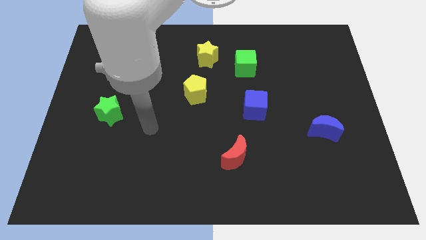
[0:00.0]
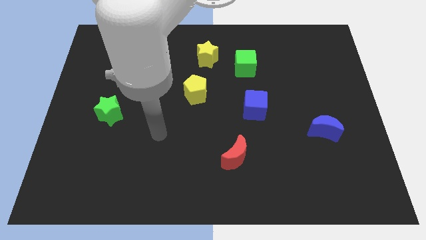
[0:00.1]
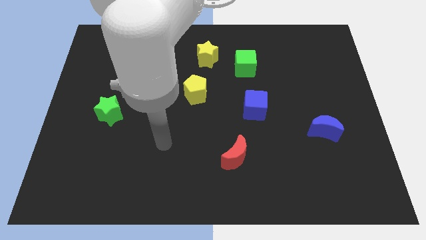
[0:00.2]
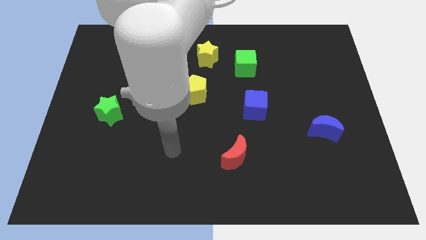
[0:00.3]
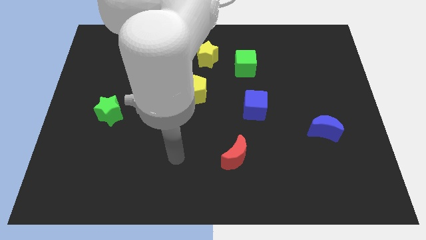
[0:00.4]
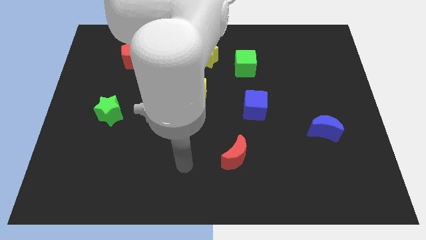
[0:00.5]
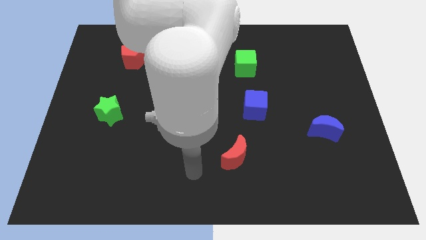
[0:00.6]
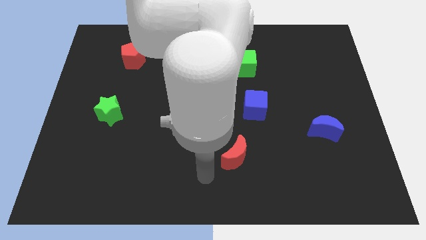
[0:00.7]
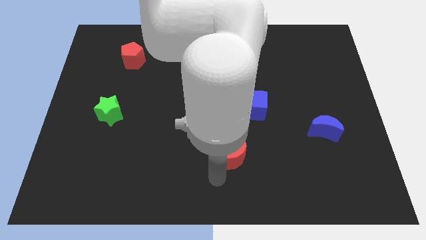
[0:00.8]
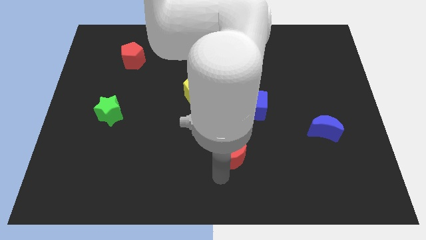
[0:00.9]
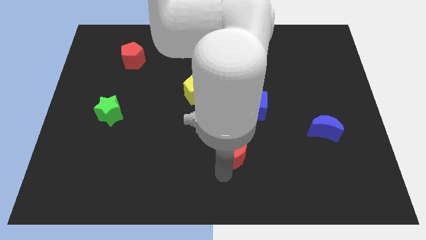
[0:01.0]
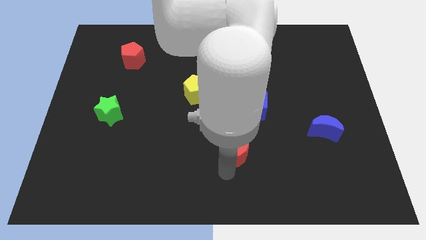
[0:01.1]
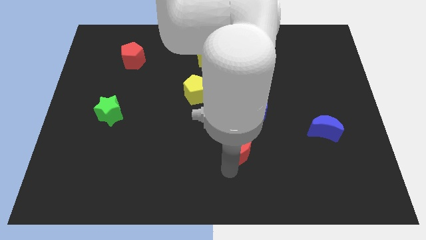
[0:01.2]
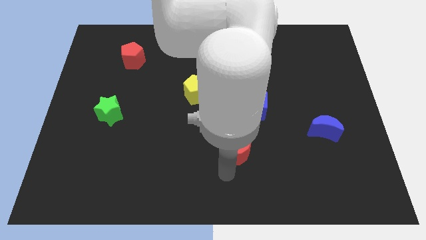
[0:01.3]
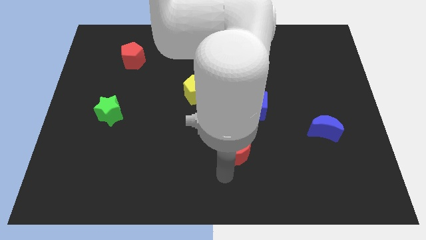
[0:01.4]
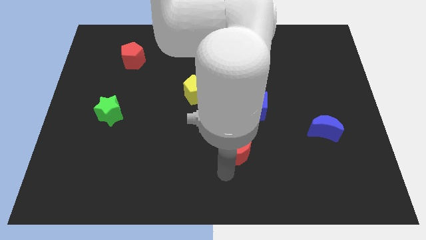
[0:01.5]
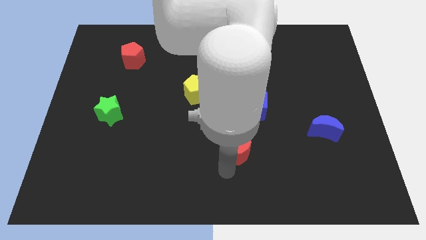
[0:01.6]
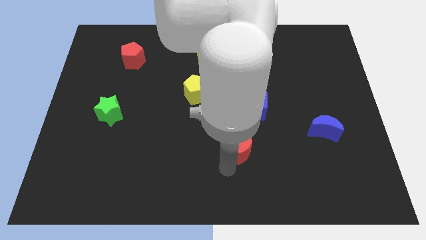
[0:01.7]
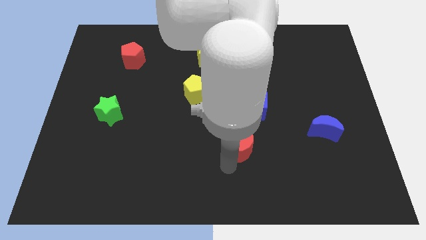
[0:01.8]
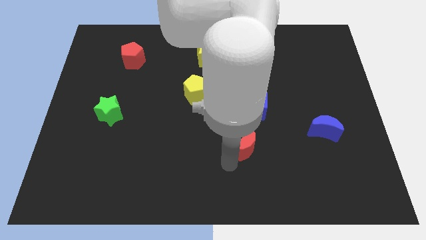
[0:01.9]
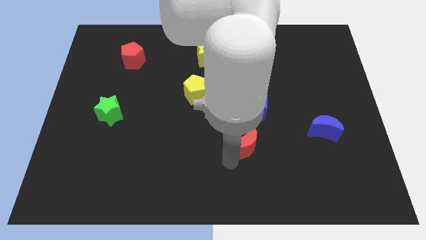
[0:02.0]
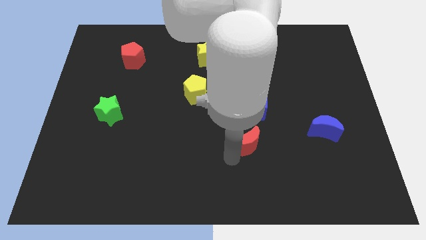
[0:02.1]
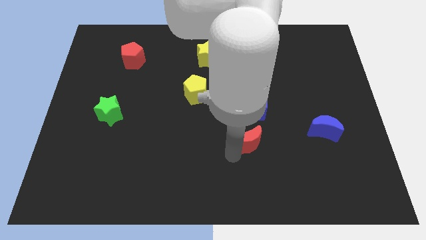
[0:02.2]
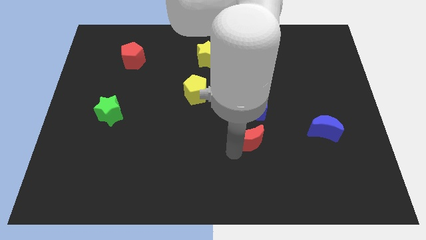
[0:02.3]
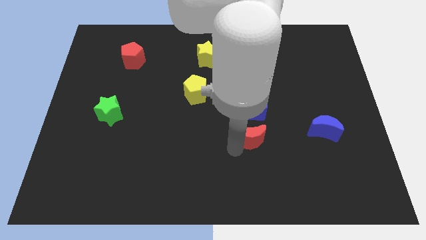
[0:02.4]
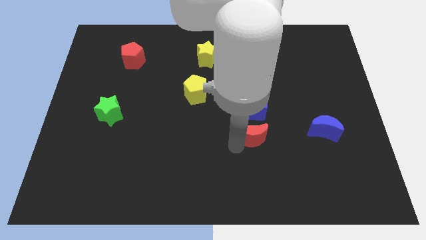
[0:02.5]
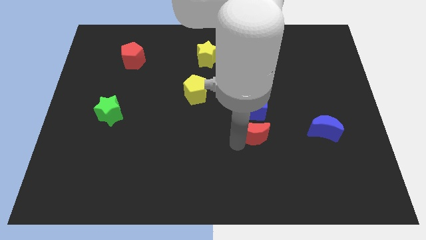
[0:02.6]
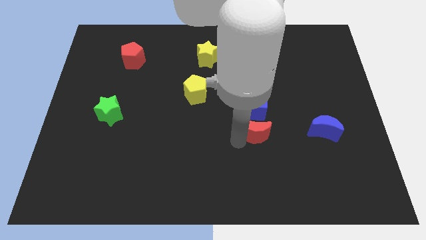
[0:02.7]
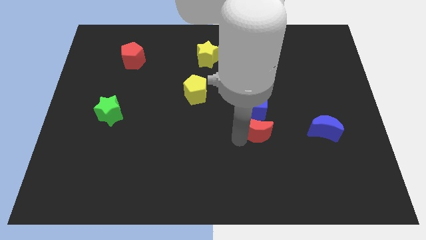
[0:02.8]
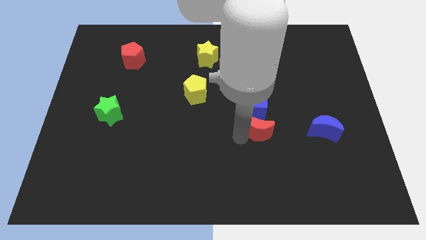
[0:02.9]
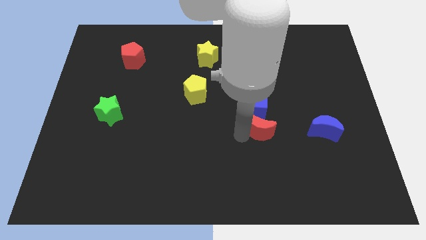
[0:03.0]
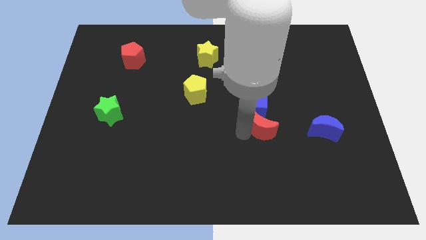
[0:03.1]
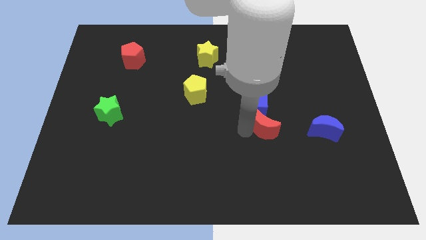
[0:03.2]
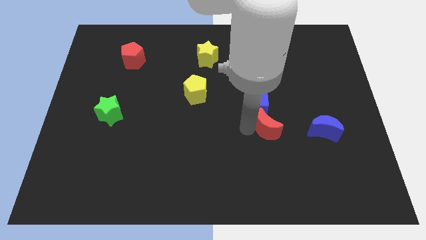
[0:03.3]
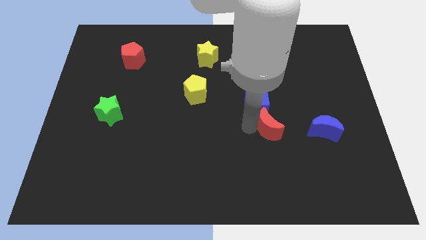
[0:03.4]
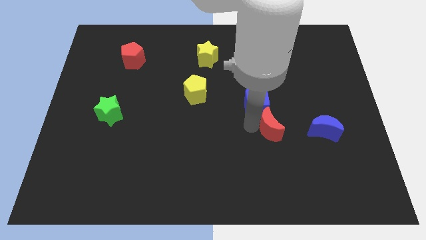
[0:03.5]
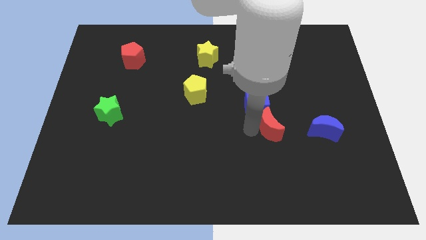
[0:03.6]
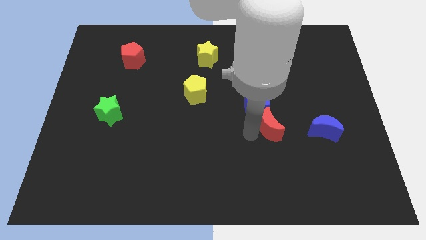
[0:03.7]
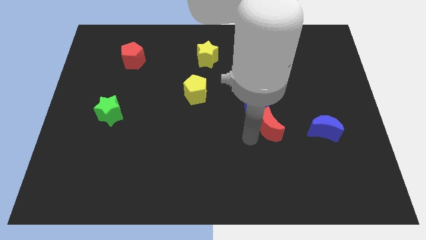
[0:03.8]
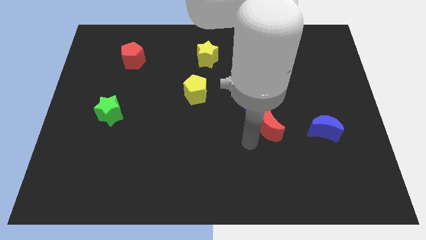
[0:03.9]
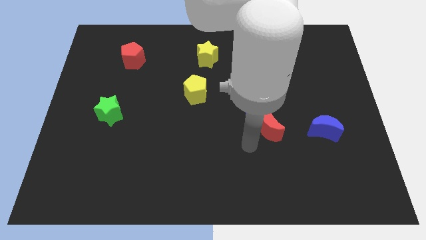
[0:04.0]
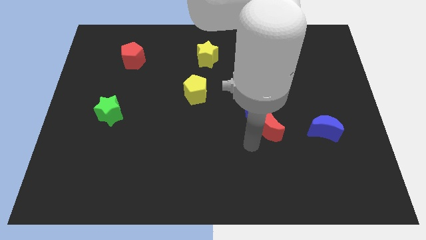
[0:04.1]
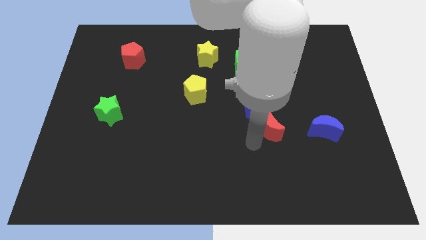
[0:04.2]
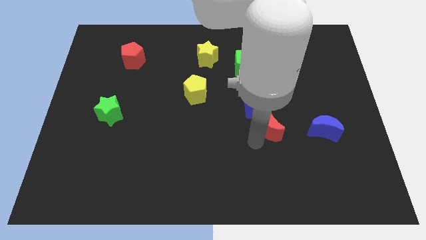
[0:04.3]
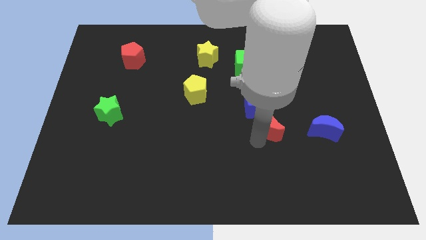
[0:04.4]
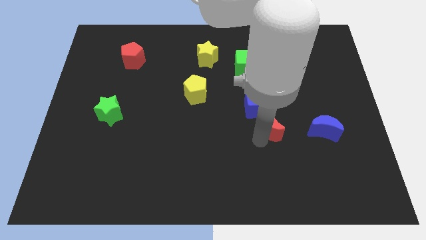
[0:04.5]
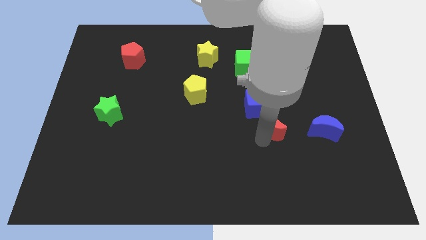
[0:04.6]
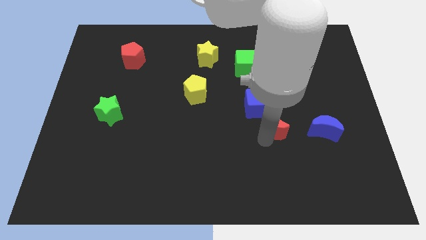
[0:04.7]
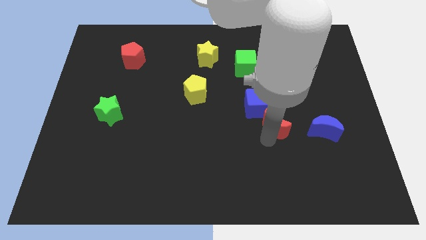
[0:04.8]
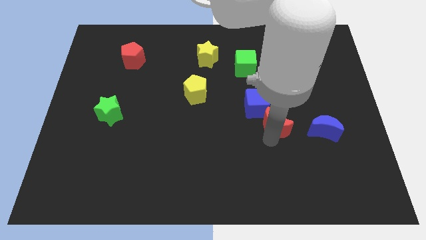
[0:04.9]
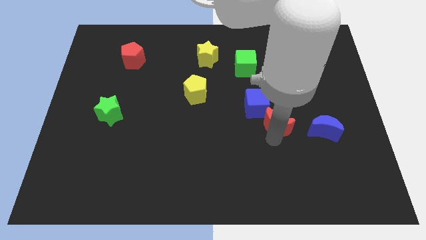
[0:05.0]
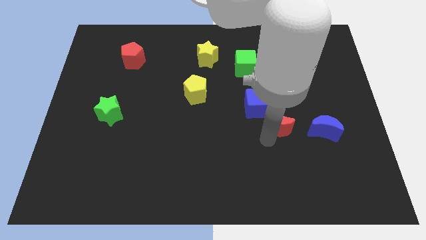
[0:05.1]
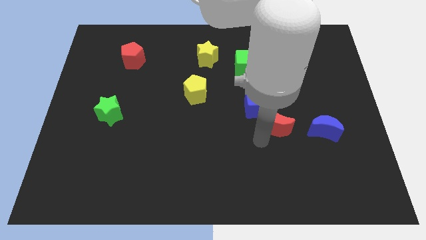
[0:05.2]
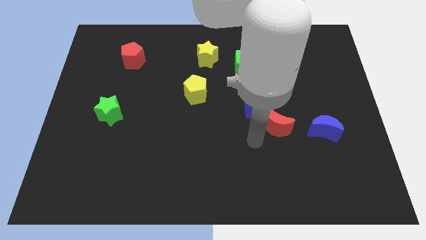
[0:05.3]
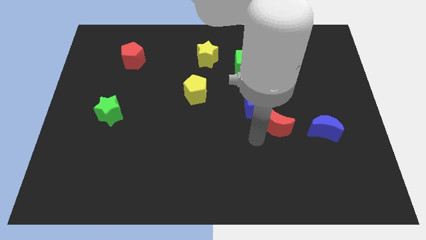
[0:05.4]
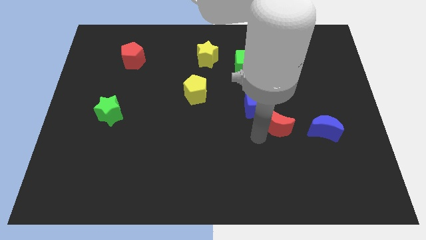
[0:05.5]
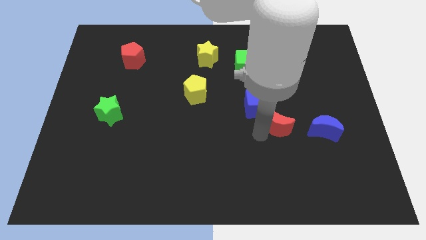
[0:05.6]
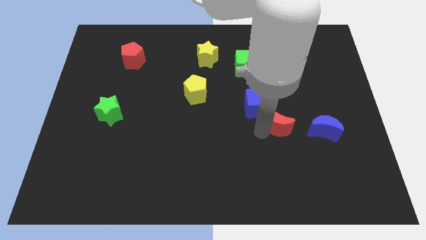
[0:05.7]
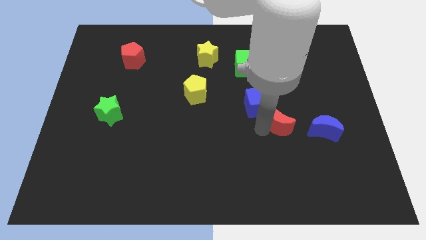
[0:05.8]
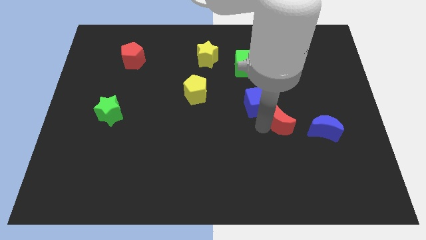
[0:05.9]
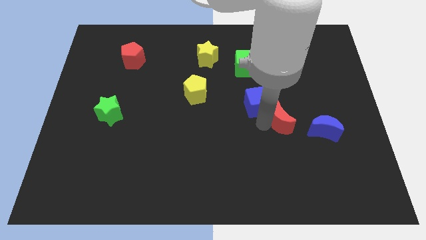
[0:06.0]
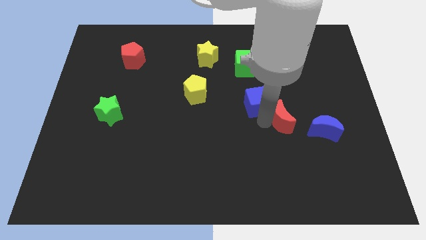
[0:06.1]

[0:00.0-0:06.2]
slide the red moon to the top left of the blue moon

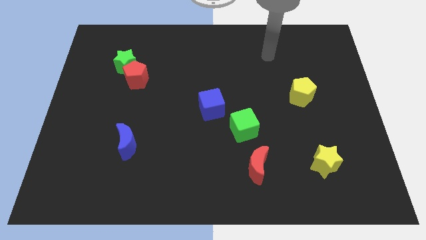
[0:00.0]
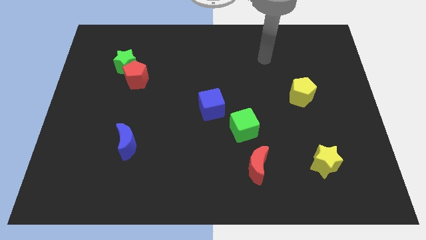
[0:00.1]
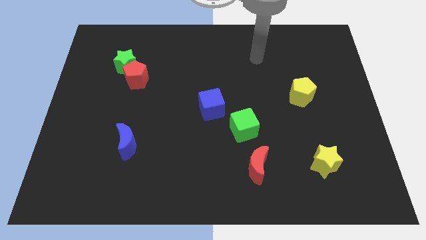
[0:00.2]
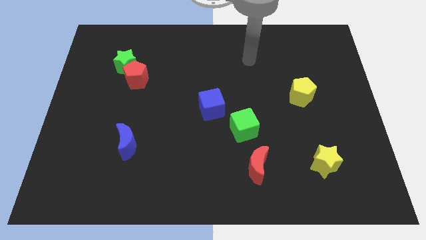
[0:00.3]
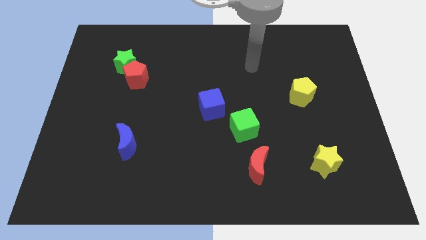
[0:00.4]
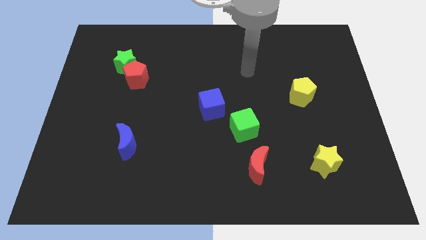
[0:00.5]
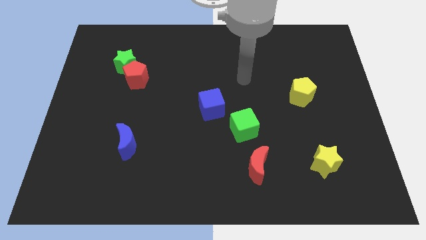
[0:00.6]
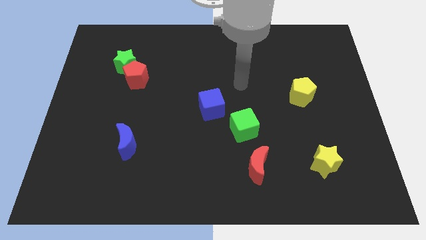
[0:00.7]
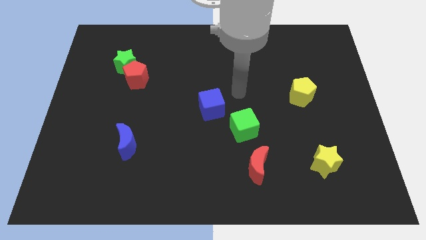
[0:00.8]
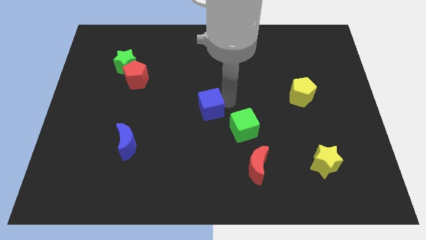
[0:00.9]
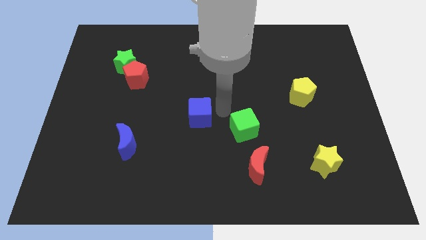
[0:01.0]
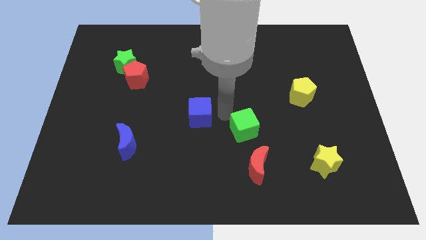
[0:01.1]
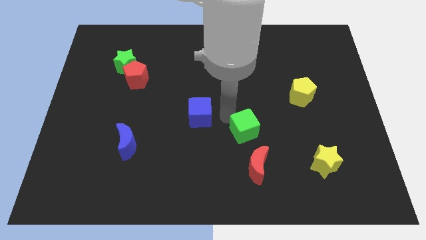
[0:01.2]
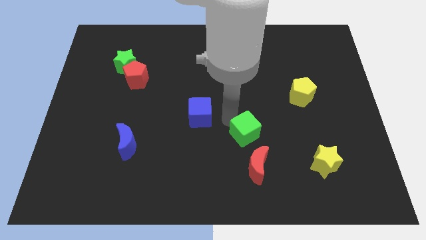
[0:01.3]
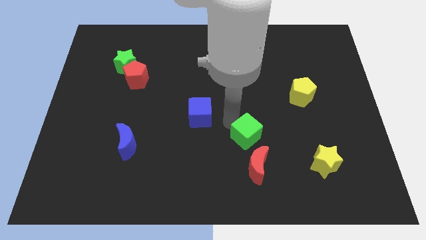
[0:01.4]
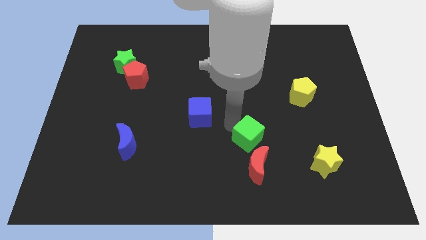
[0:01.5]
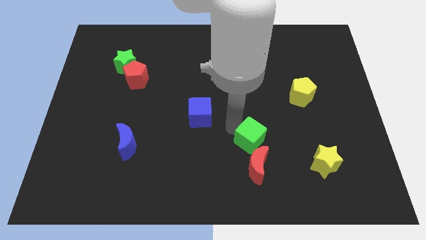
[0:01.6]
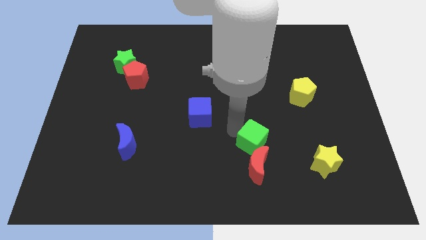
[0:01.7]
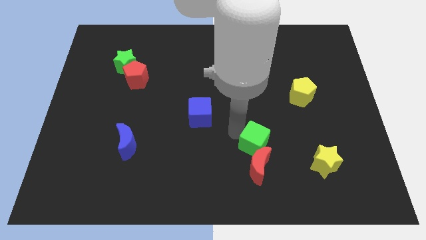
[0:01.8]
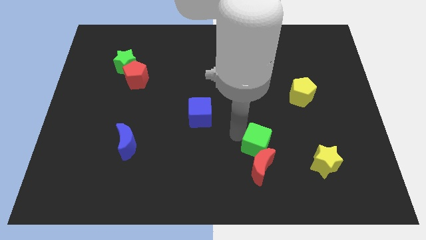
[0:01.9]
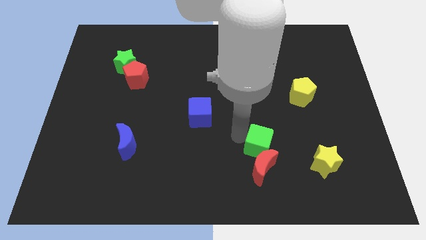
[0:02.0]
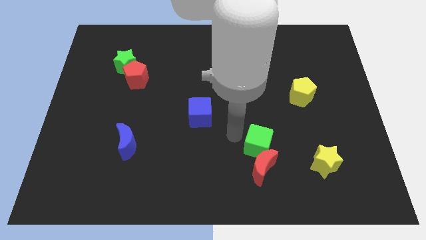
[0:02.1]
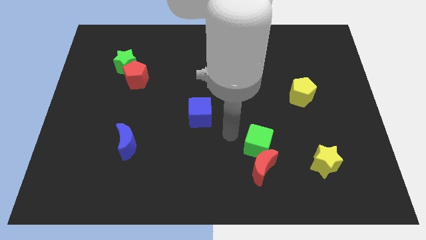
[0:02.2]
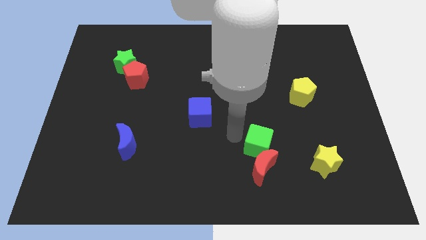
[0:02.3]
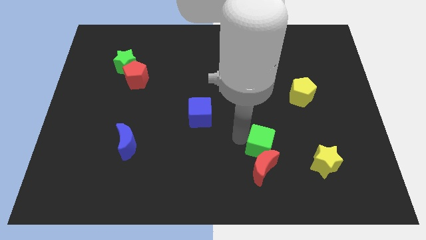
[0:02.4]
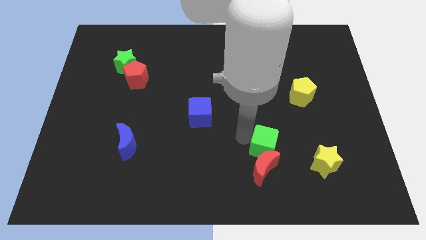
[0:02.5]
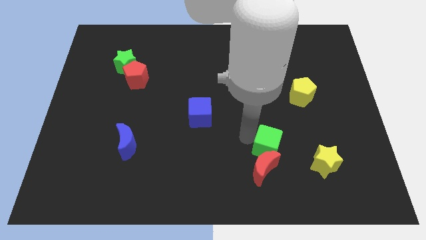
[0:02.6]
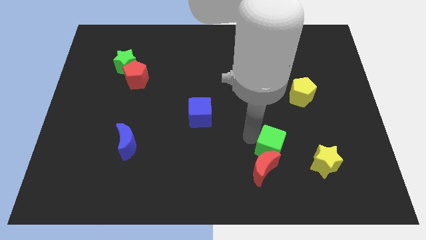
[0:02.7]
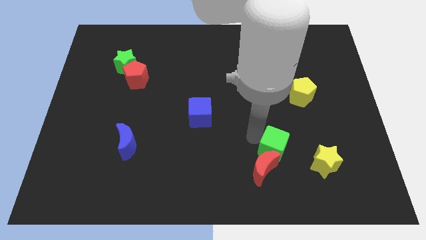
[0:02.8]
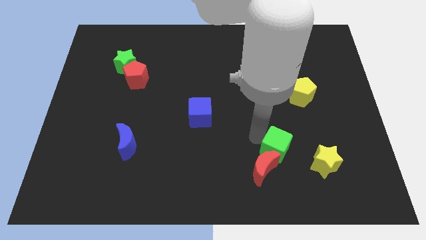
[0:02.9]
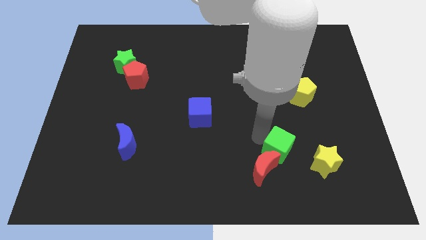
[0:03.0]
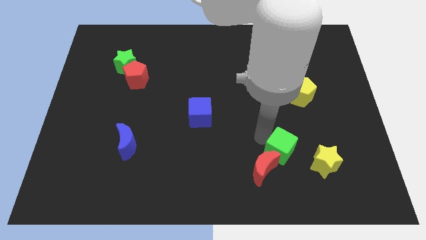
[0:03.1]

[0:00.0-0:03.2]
put the green cube right of the red moon
